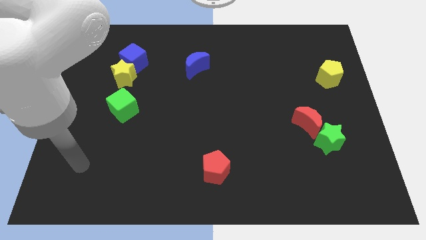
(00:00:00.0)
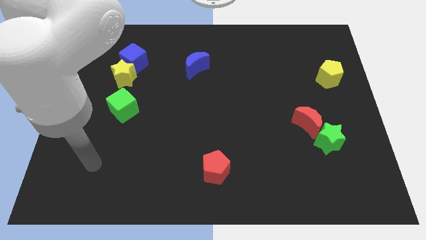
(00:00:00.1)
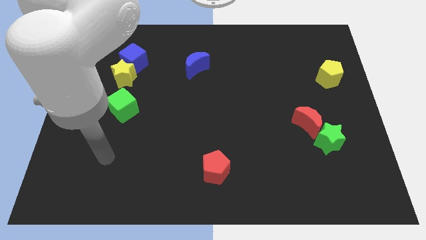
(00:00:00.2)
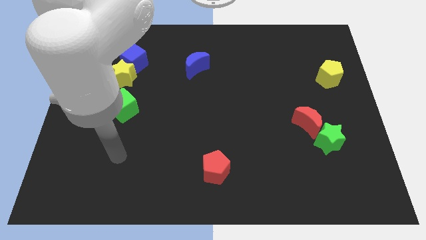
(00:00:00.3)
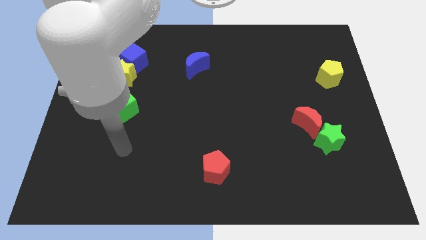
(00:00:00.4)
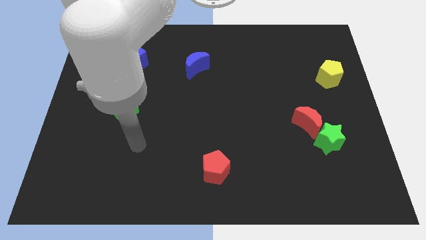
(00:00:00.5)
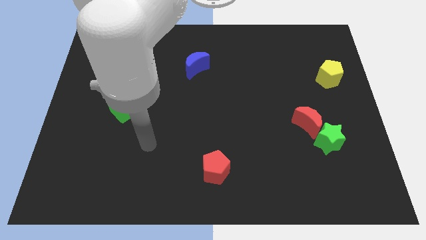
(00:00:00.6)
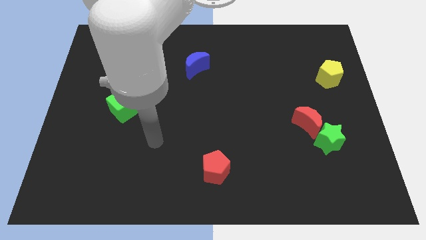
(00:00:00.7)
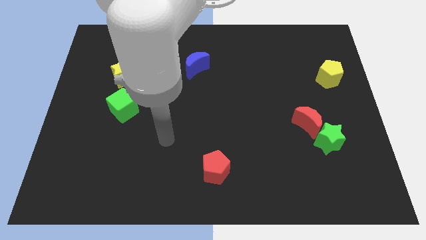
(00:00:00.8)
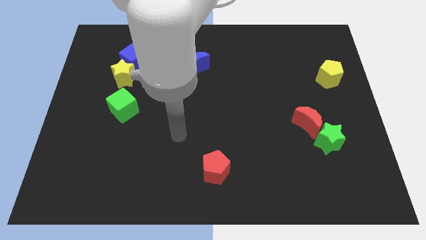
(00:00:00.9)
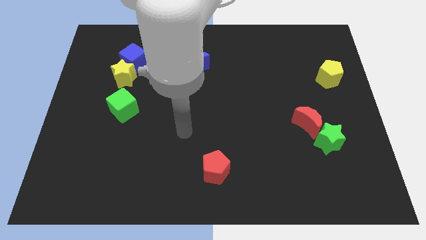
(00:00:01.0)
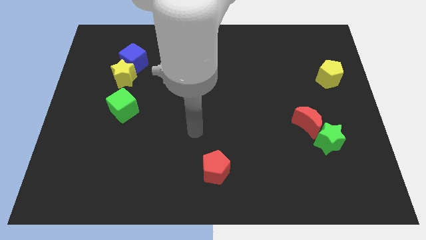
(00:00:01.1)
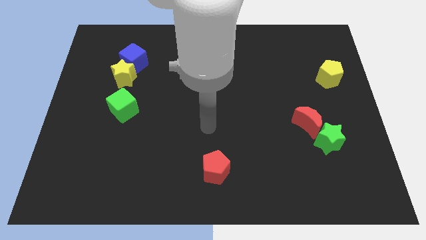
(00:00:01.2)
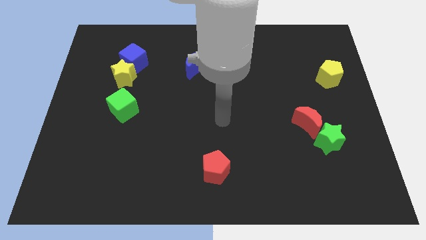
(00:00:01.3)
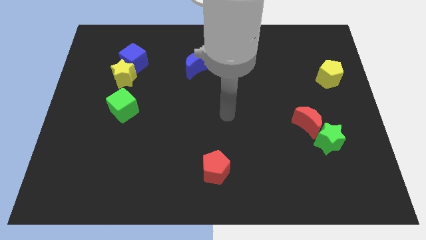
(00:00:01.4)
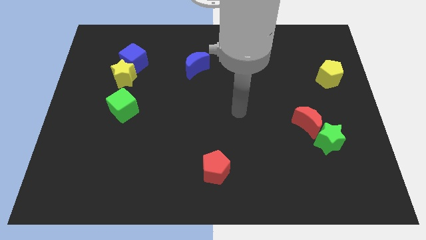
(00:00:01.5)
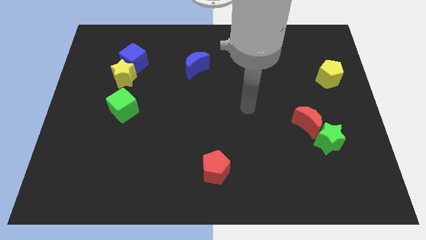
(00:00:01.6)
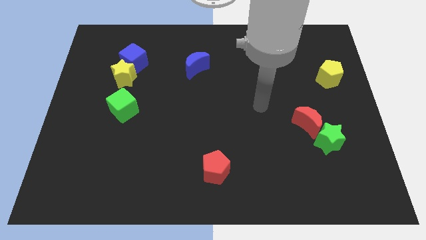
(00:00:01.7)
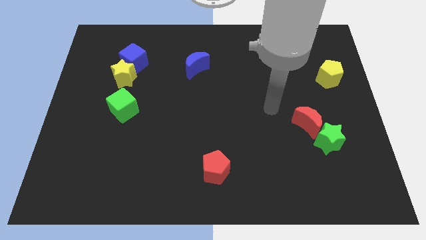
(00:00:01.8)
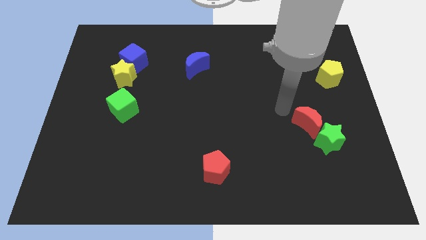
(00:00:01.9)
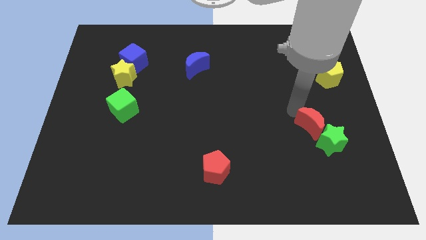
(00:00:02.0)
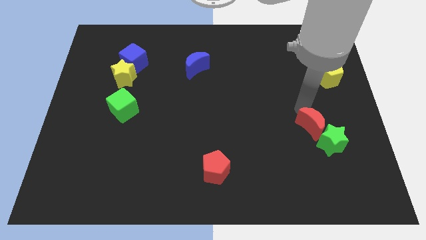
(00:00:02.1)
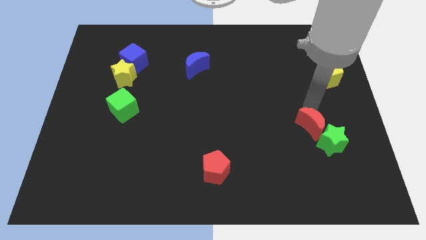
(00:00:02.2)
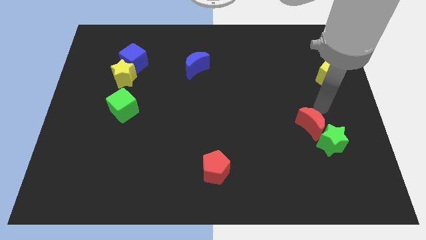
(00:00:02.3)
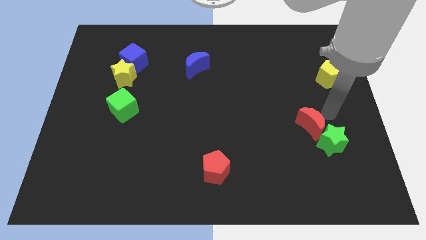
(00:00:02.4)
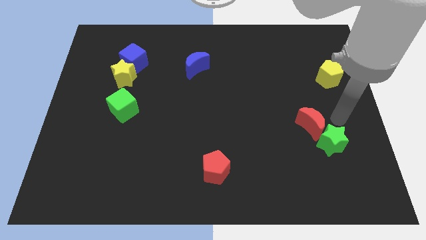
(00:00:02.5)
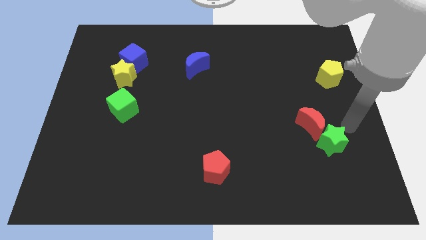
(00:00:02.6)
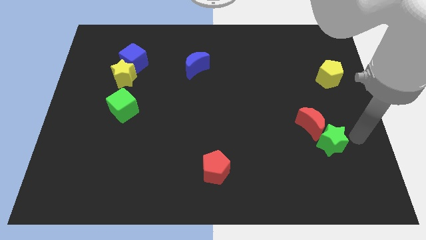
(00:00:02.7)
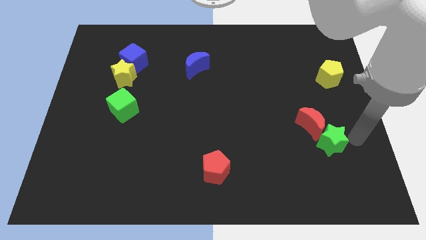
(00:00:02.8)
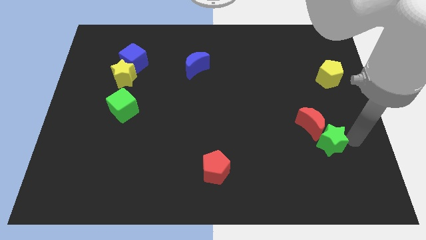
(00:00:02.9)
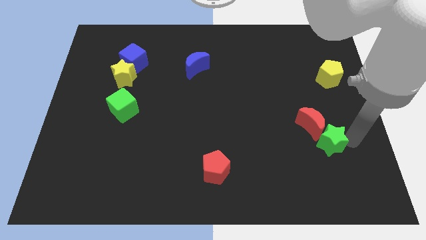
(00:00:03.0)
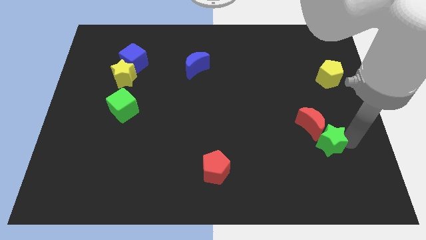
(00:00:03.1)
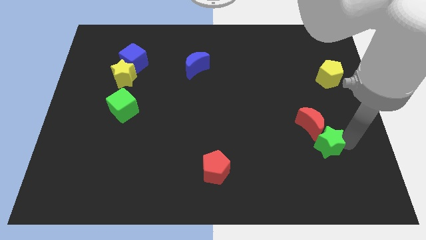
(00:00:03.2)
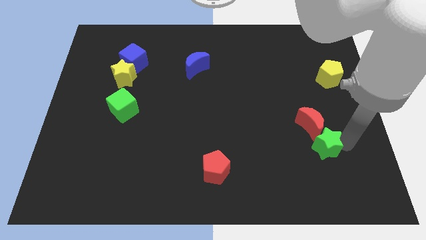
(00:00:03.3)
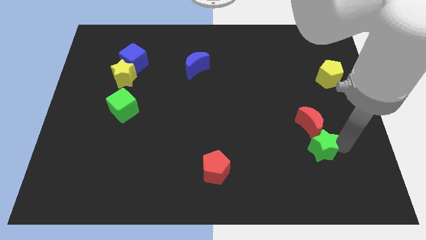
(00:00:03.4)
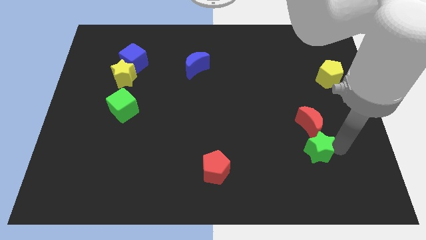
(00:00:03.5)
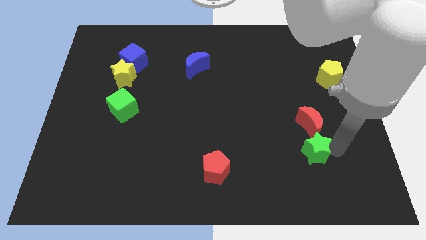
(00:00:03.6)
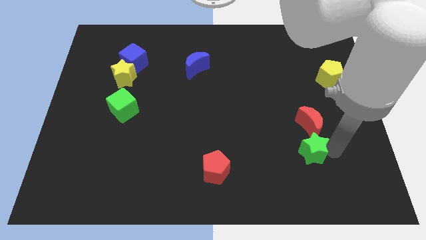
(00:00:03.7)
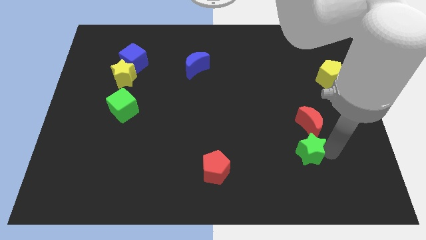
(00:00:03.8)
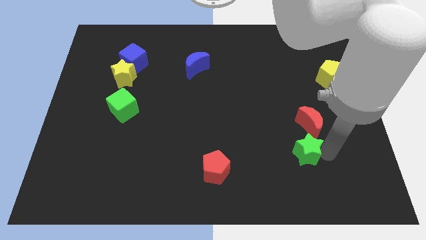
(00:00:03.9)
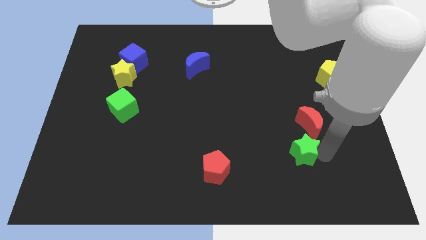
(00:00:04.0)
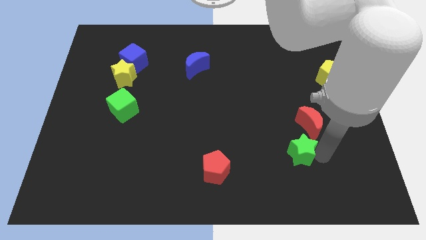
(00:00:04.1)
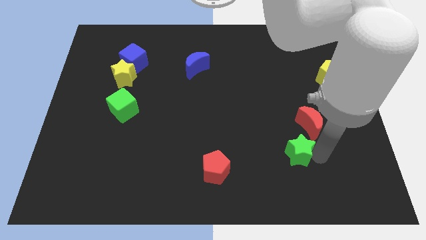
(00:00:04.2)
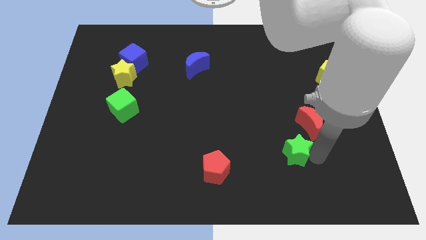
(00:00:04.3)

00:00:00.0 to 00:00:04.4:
slightly move the green star to the left

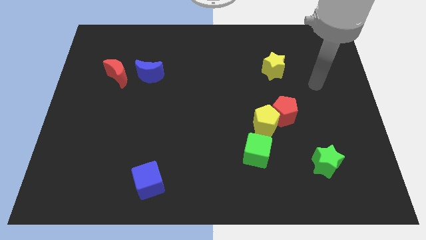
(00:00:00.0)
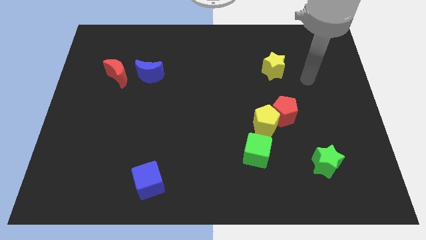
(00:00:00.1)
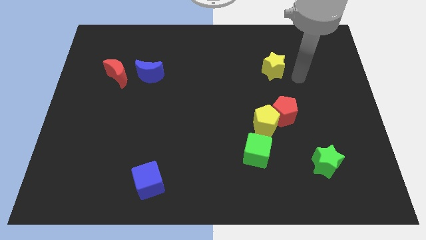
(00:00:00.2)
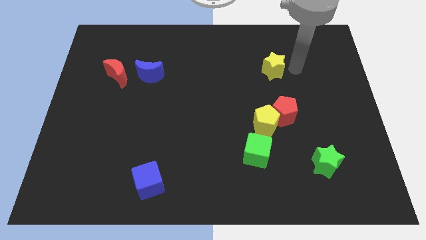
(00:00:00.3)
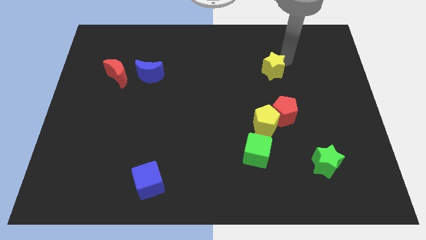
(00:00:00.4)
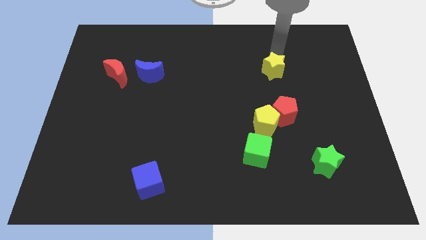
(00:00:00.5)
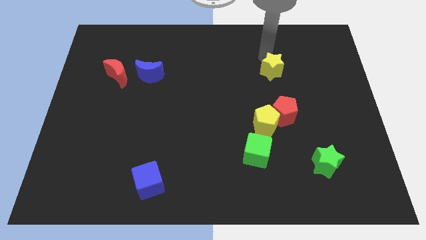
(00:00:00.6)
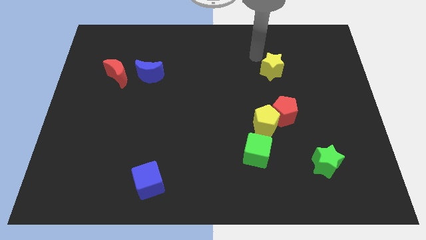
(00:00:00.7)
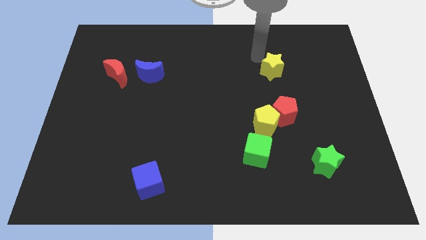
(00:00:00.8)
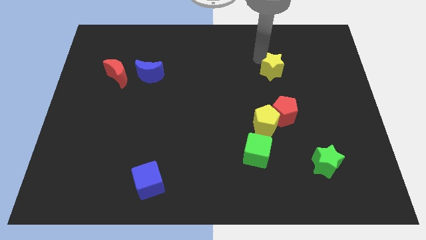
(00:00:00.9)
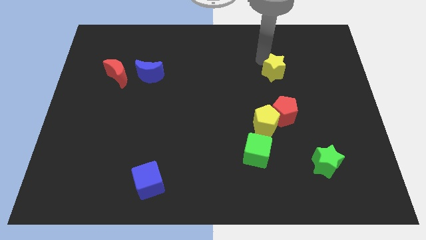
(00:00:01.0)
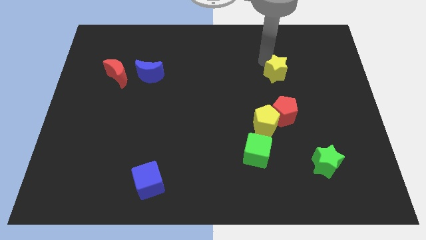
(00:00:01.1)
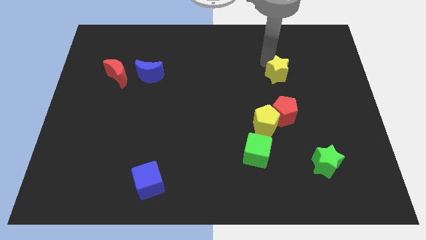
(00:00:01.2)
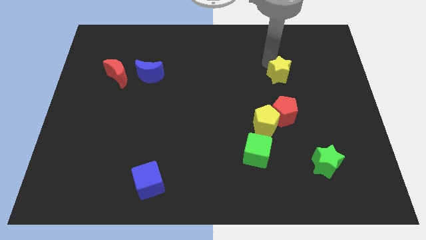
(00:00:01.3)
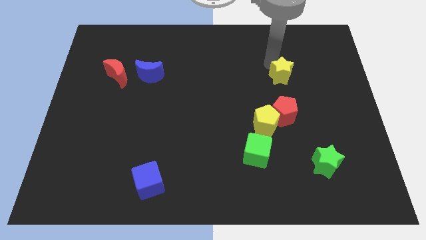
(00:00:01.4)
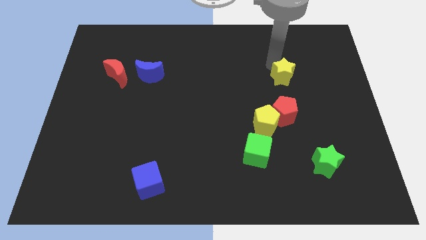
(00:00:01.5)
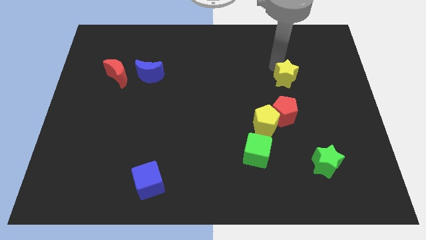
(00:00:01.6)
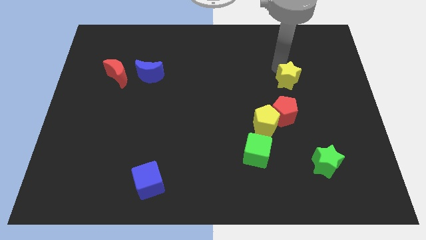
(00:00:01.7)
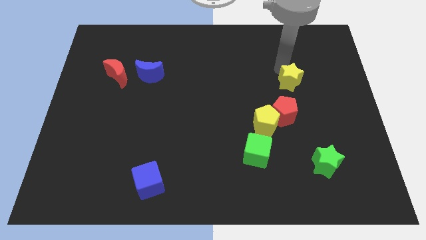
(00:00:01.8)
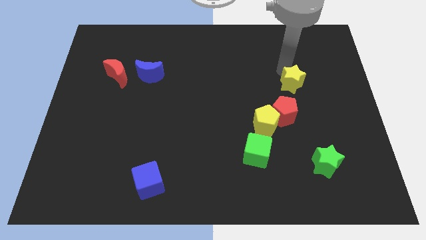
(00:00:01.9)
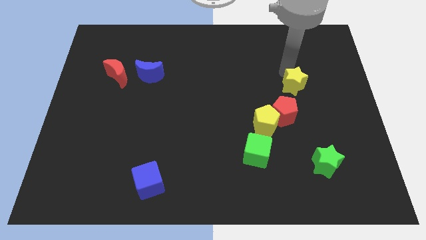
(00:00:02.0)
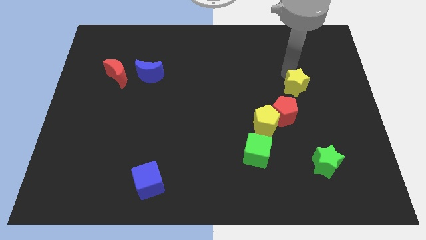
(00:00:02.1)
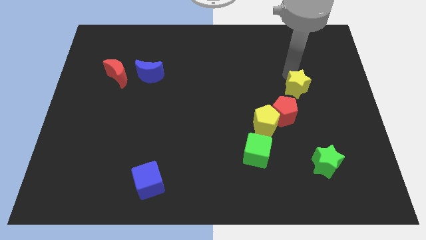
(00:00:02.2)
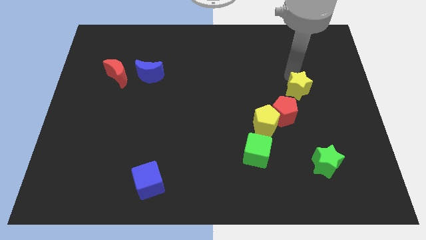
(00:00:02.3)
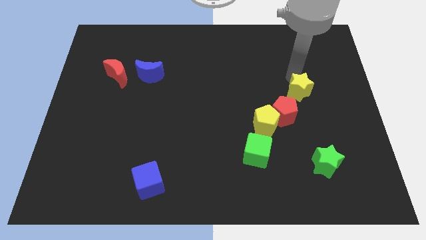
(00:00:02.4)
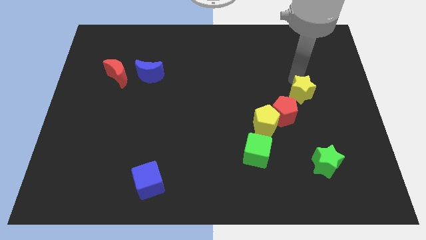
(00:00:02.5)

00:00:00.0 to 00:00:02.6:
move the yellow star downwards a little

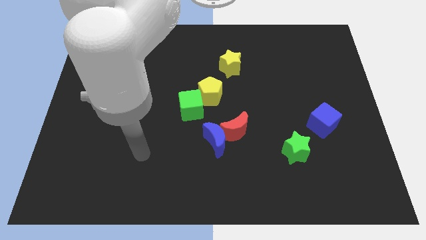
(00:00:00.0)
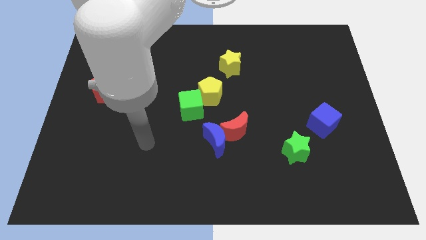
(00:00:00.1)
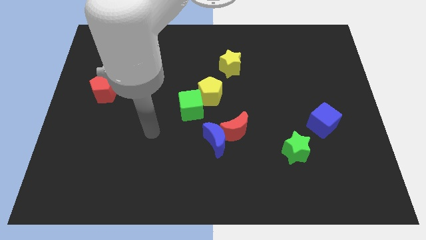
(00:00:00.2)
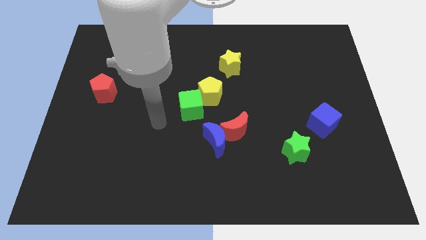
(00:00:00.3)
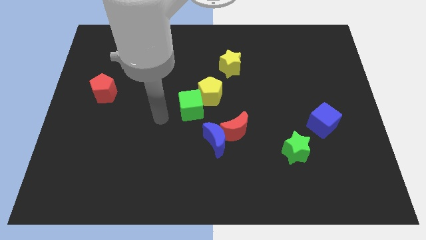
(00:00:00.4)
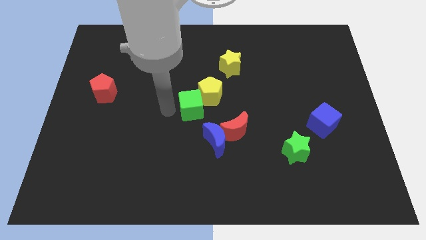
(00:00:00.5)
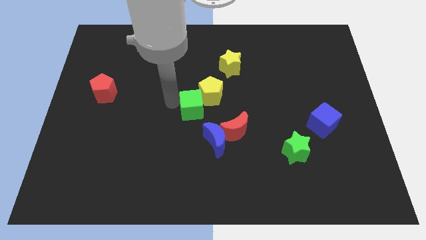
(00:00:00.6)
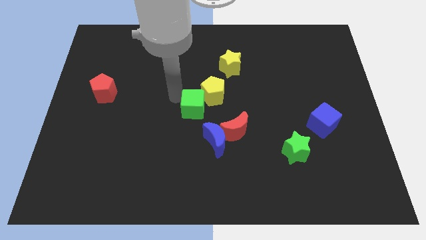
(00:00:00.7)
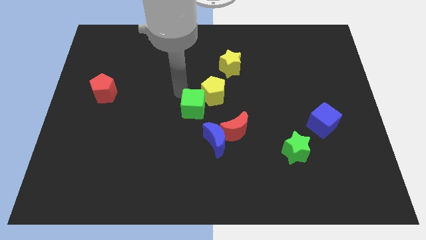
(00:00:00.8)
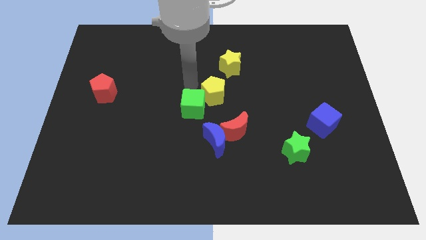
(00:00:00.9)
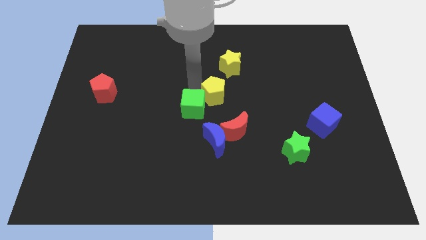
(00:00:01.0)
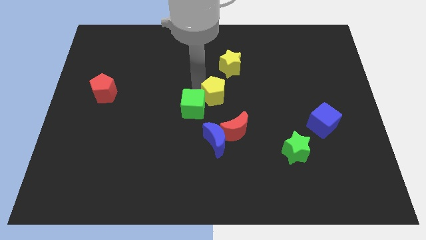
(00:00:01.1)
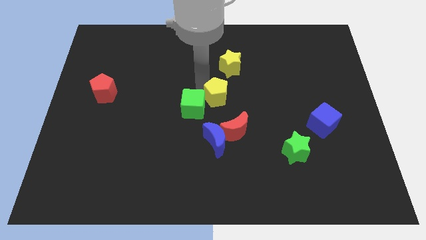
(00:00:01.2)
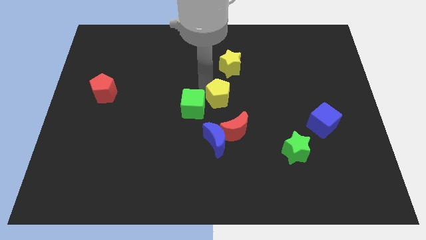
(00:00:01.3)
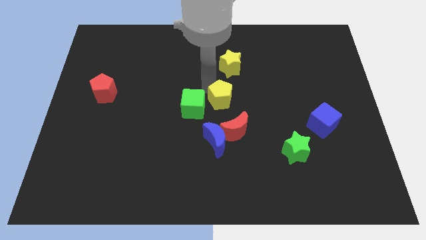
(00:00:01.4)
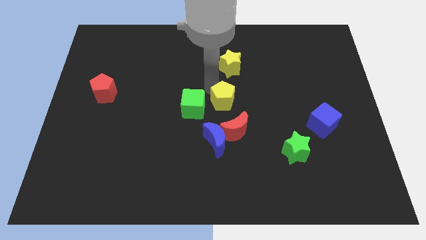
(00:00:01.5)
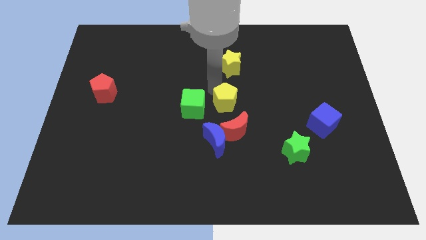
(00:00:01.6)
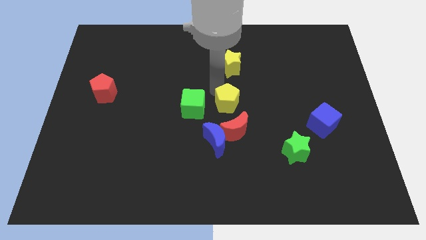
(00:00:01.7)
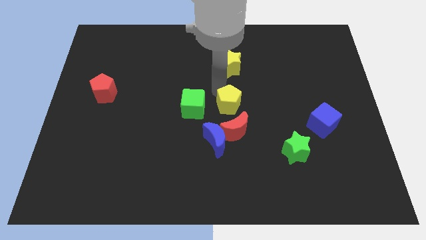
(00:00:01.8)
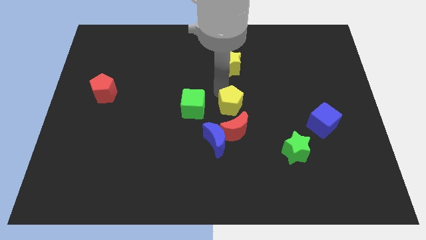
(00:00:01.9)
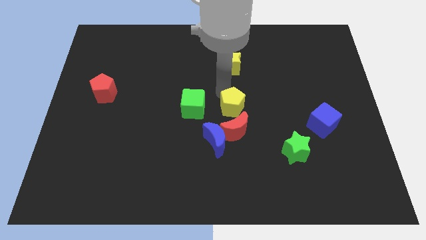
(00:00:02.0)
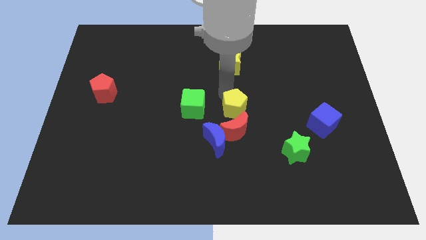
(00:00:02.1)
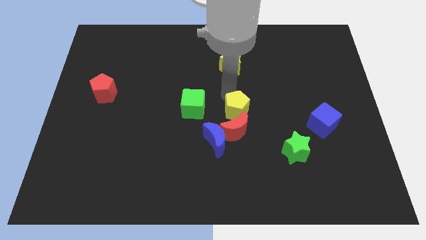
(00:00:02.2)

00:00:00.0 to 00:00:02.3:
move the yellow pentagon downwards and right diagonally a little
